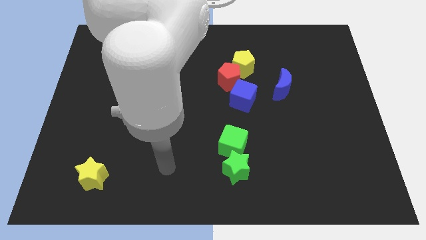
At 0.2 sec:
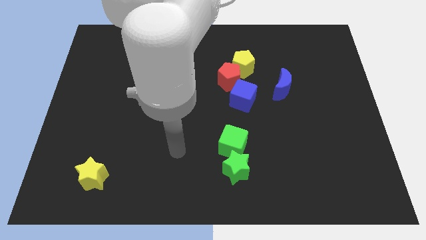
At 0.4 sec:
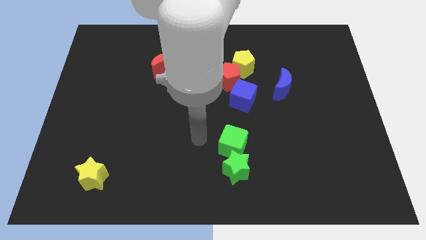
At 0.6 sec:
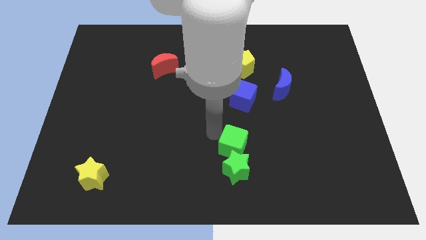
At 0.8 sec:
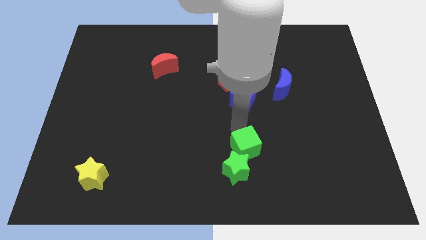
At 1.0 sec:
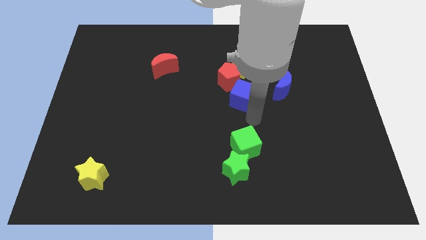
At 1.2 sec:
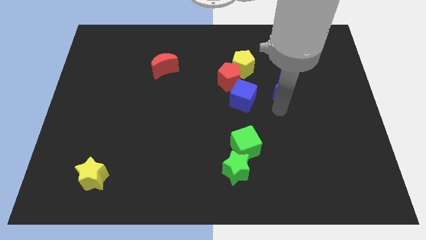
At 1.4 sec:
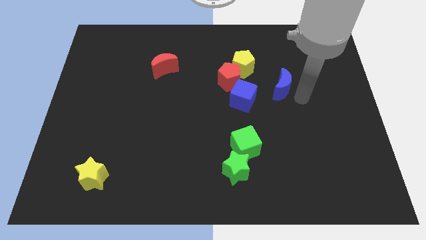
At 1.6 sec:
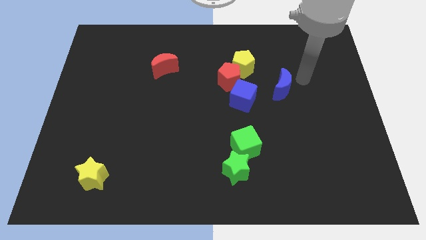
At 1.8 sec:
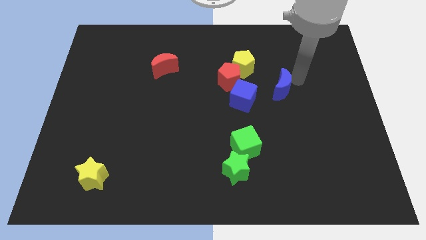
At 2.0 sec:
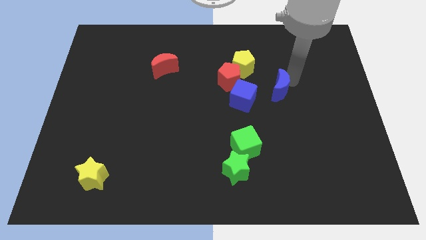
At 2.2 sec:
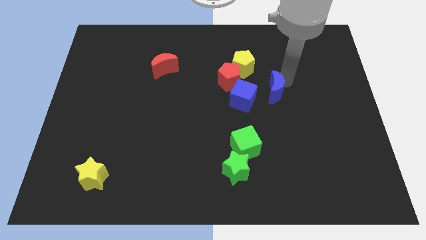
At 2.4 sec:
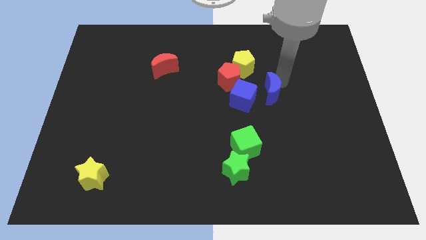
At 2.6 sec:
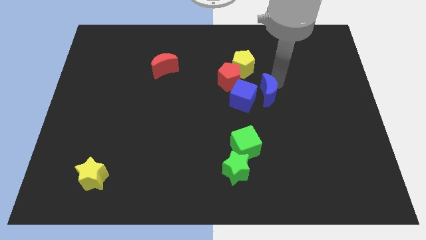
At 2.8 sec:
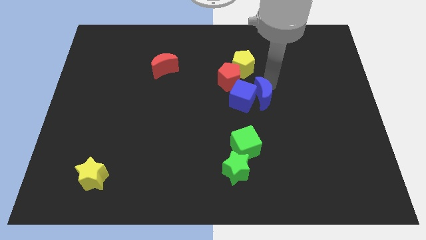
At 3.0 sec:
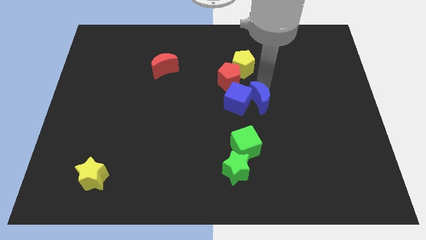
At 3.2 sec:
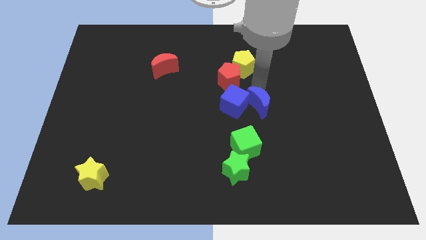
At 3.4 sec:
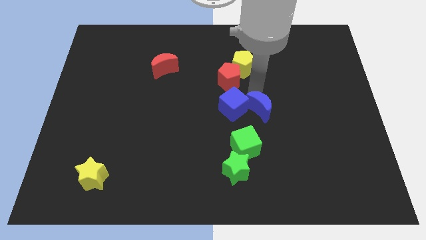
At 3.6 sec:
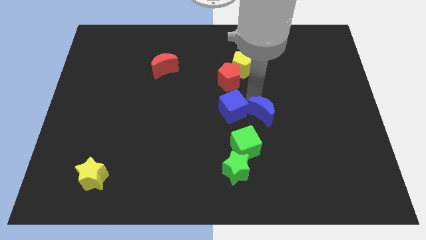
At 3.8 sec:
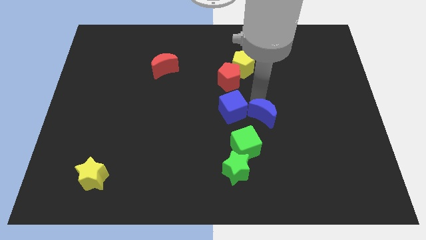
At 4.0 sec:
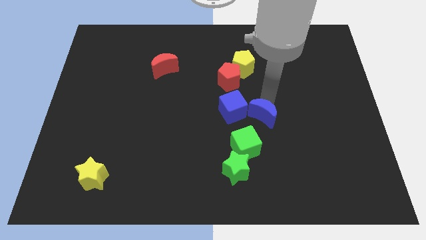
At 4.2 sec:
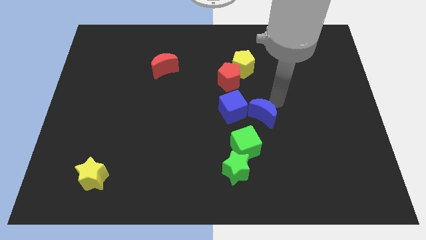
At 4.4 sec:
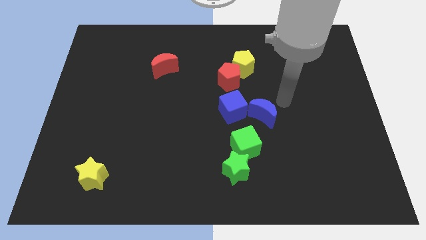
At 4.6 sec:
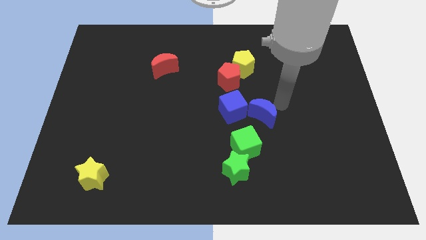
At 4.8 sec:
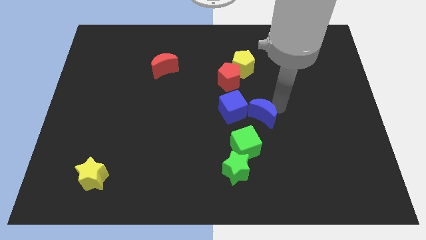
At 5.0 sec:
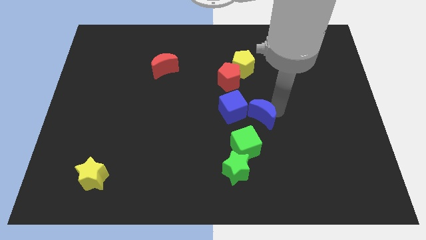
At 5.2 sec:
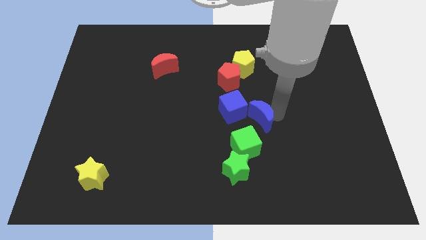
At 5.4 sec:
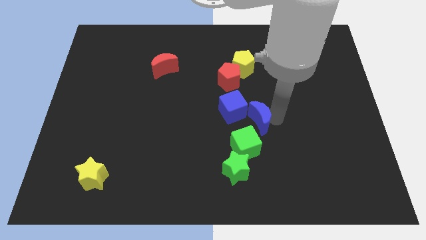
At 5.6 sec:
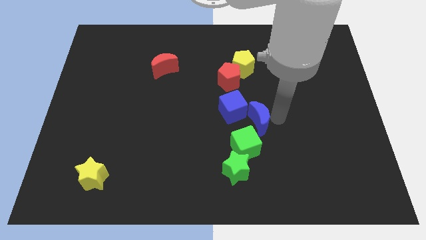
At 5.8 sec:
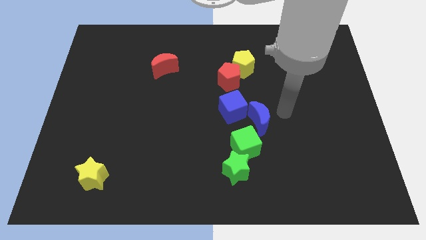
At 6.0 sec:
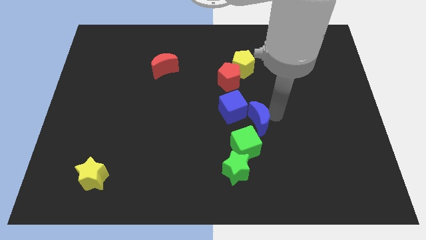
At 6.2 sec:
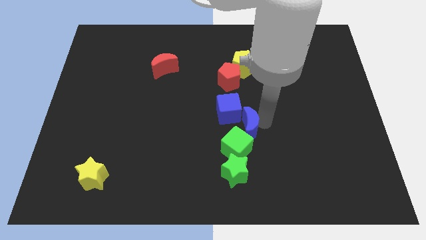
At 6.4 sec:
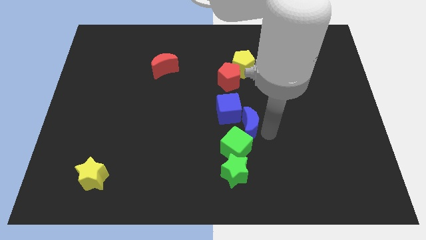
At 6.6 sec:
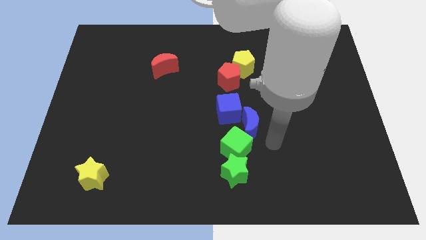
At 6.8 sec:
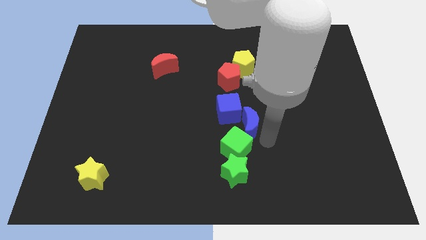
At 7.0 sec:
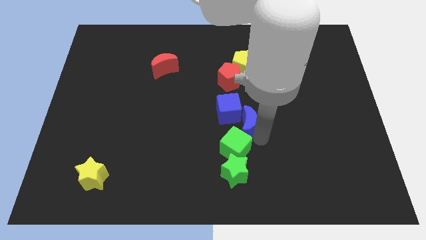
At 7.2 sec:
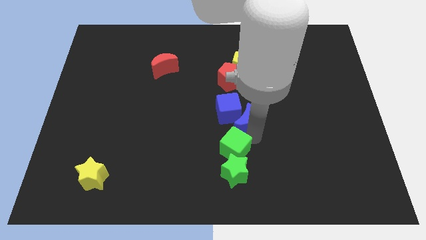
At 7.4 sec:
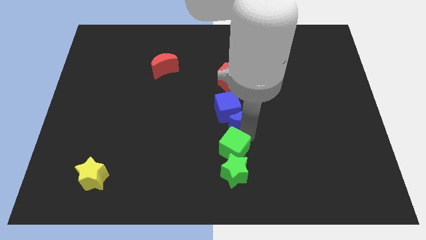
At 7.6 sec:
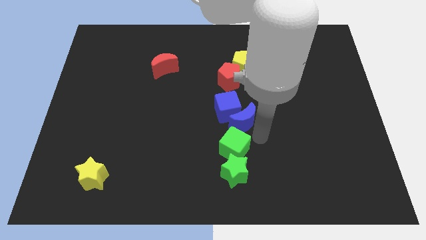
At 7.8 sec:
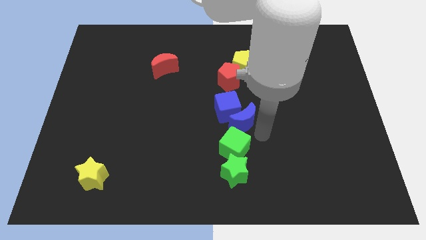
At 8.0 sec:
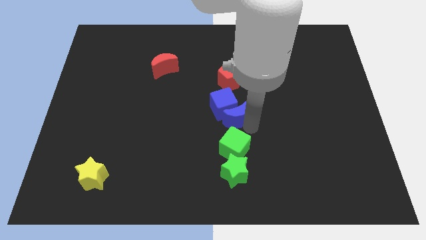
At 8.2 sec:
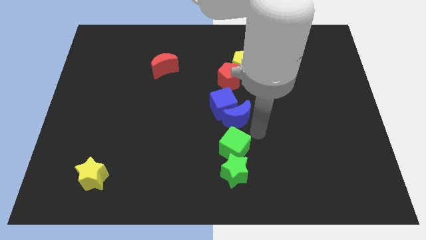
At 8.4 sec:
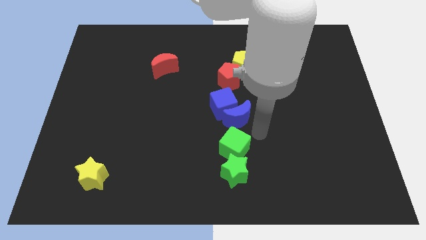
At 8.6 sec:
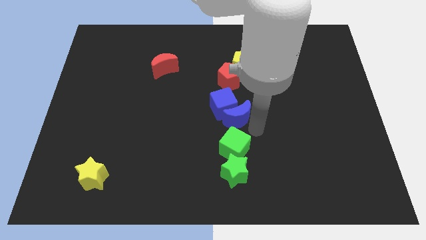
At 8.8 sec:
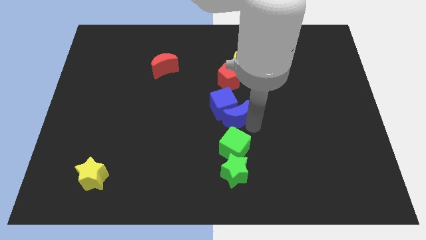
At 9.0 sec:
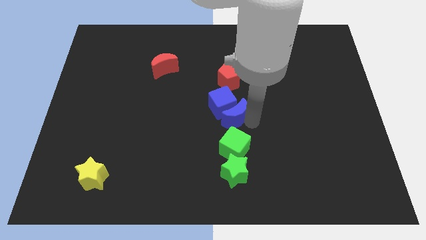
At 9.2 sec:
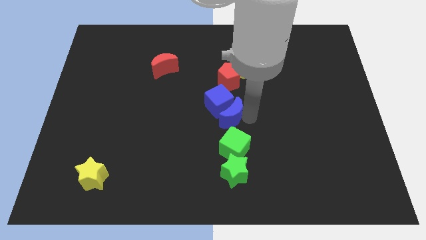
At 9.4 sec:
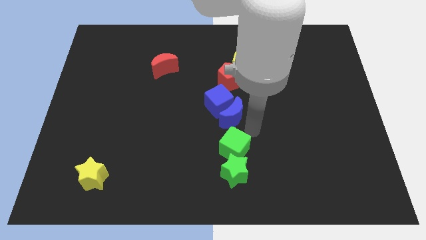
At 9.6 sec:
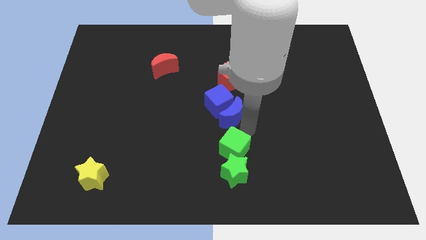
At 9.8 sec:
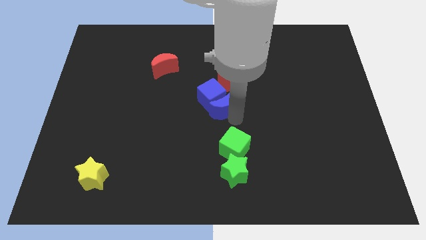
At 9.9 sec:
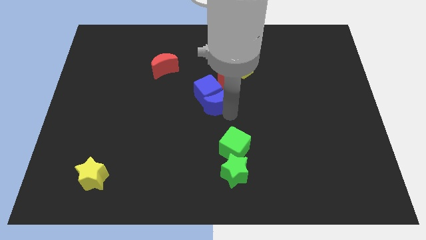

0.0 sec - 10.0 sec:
slide the blue moon to the bottom left side of the red pentagon
